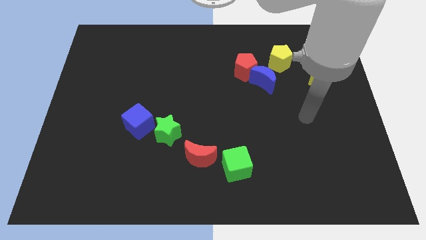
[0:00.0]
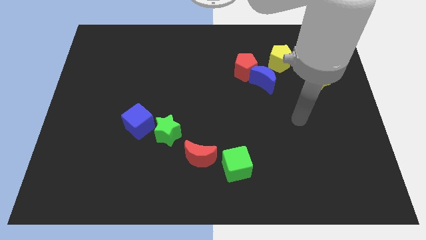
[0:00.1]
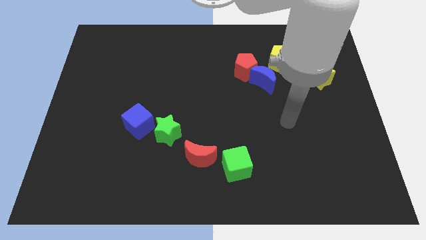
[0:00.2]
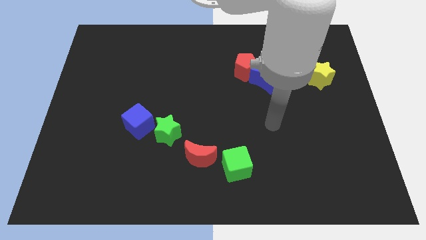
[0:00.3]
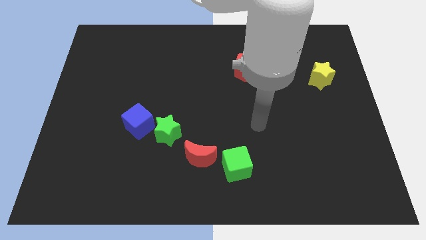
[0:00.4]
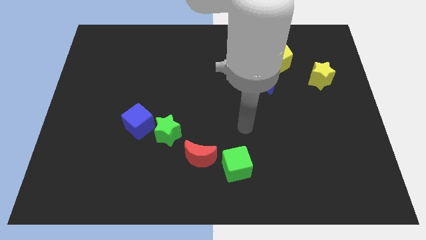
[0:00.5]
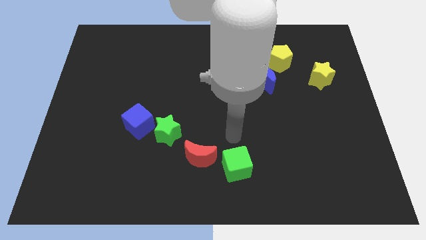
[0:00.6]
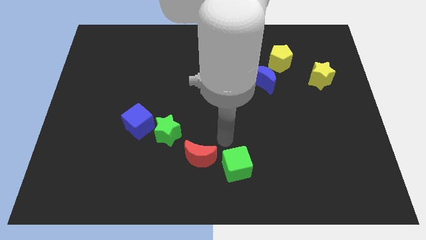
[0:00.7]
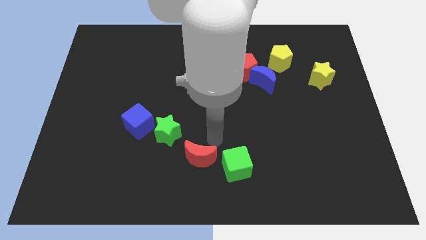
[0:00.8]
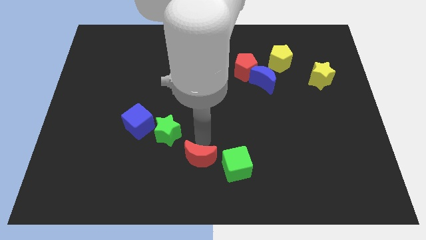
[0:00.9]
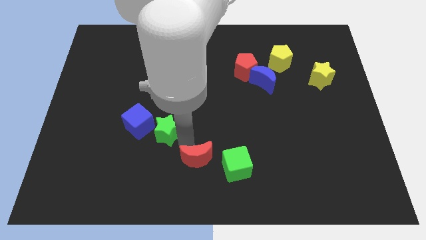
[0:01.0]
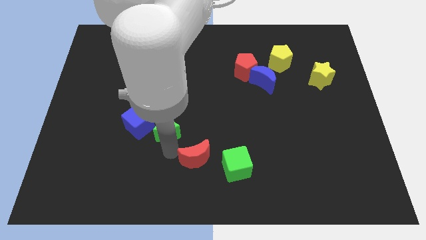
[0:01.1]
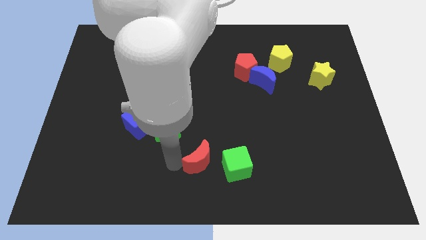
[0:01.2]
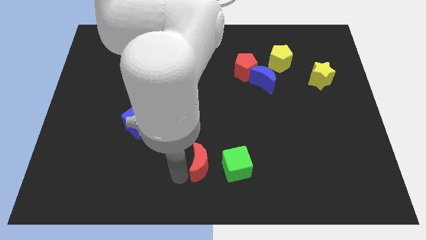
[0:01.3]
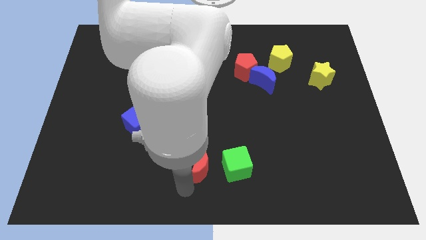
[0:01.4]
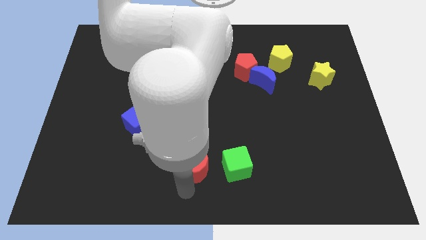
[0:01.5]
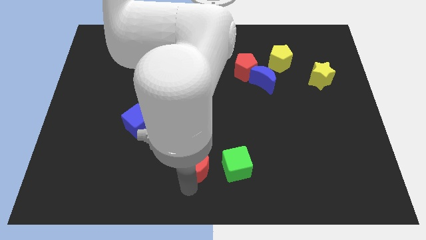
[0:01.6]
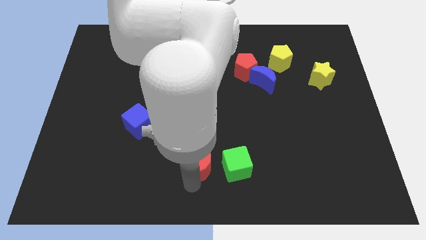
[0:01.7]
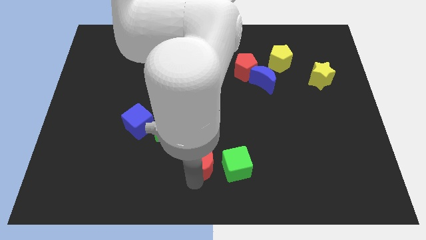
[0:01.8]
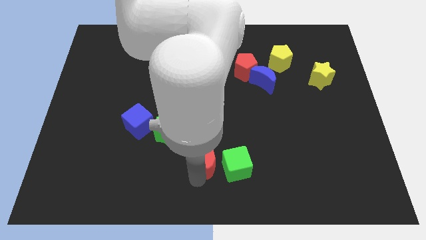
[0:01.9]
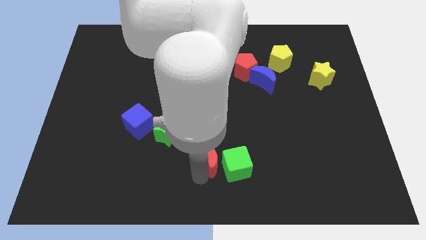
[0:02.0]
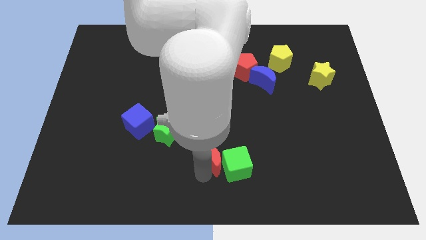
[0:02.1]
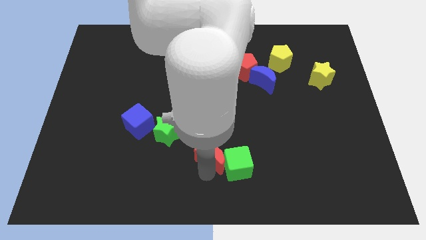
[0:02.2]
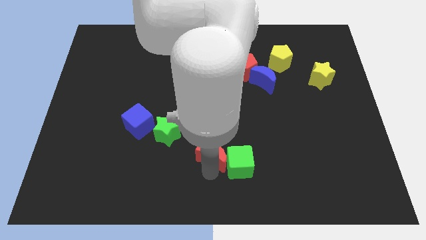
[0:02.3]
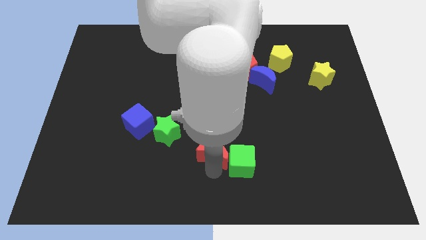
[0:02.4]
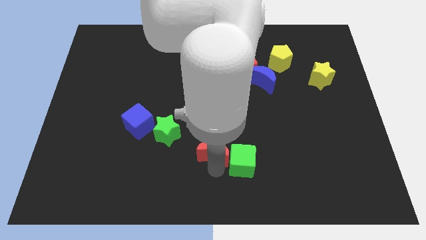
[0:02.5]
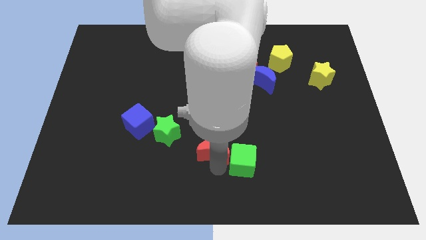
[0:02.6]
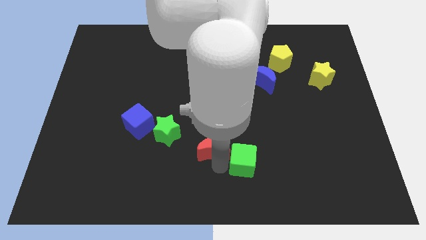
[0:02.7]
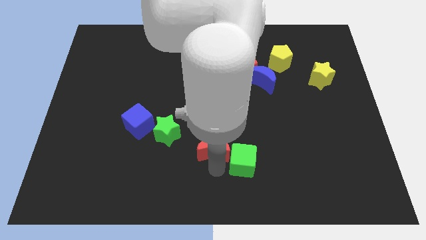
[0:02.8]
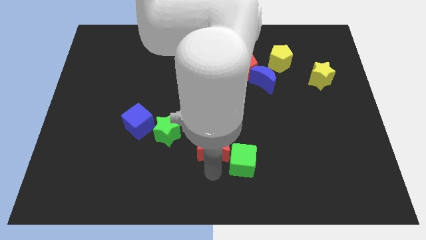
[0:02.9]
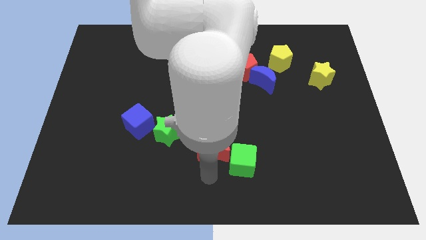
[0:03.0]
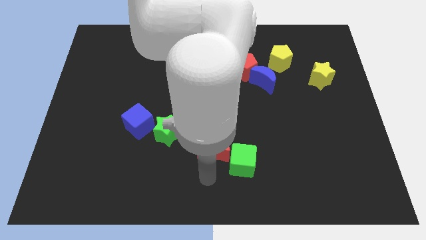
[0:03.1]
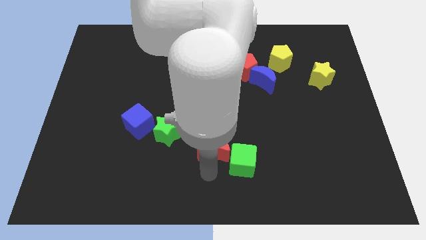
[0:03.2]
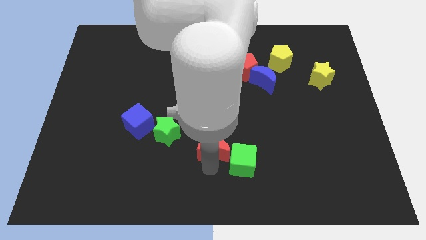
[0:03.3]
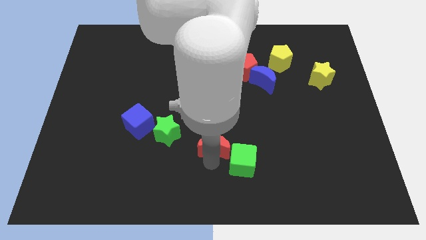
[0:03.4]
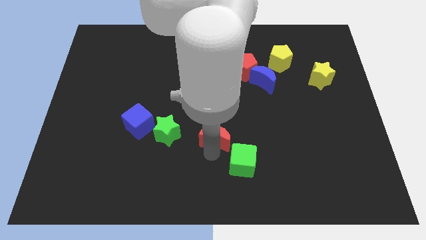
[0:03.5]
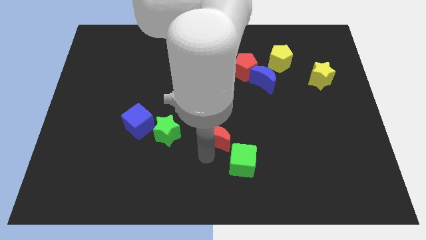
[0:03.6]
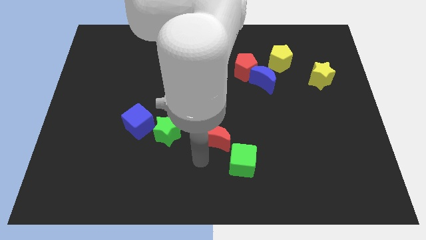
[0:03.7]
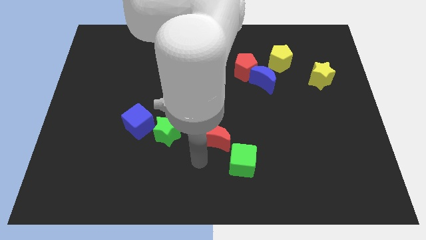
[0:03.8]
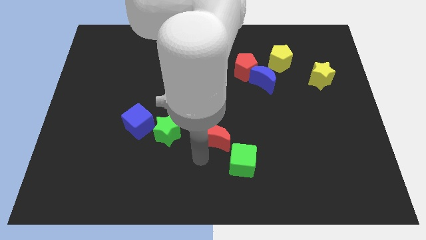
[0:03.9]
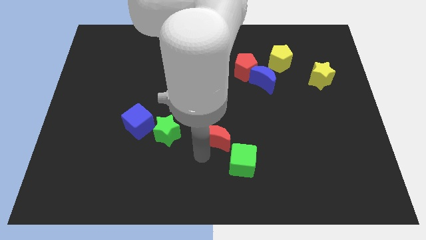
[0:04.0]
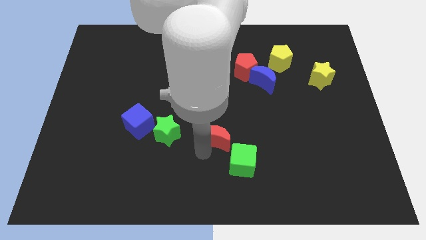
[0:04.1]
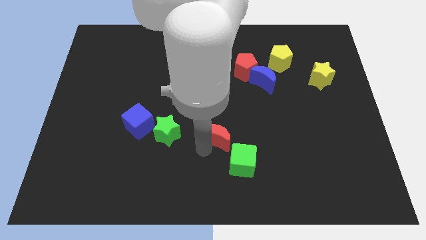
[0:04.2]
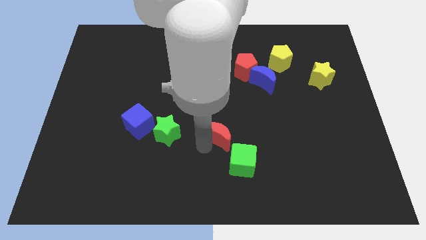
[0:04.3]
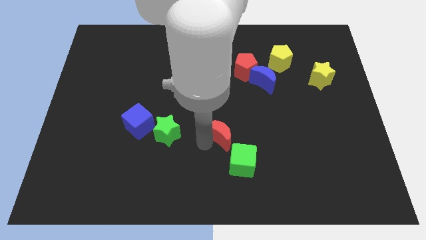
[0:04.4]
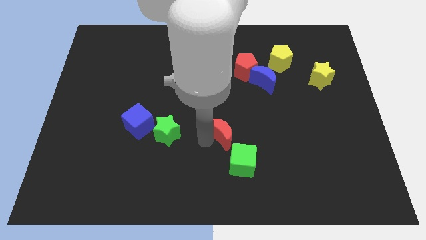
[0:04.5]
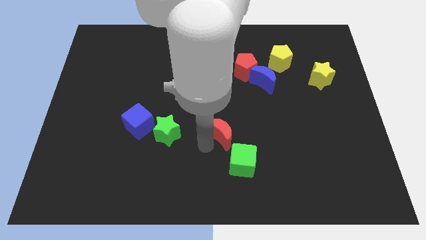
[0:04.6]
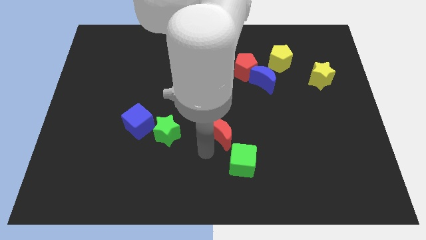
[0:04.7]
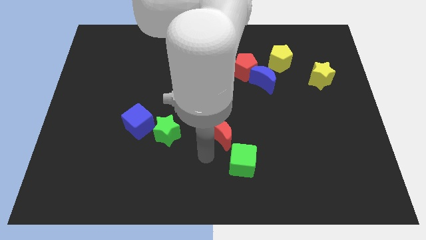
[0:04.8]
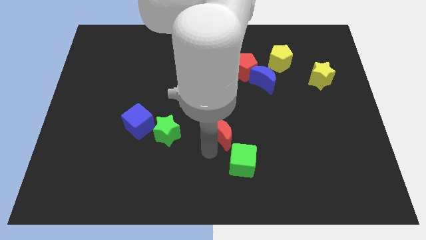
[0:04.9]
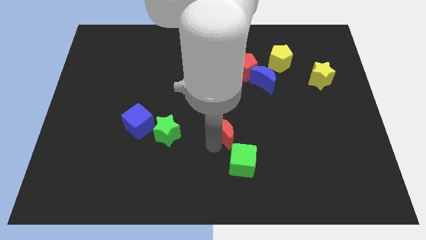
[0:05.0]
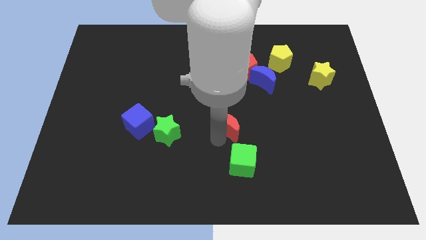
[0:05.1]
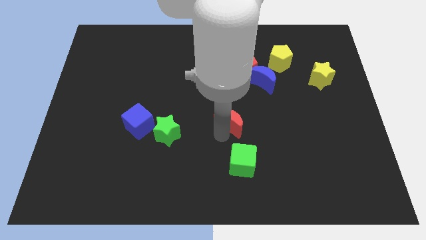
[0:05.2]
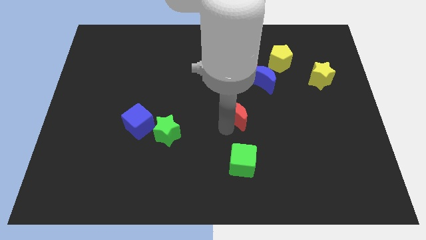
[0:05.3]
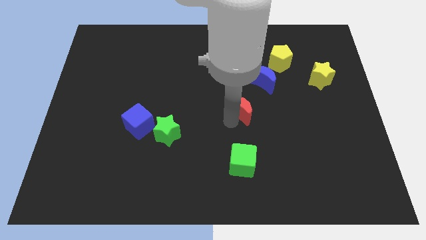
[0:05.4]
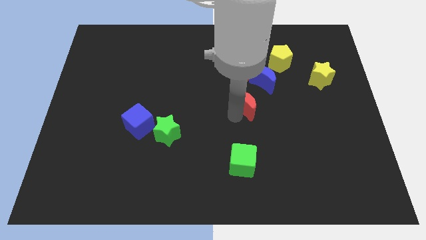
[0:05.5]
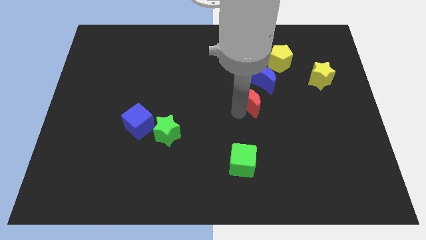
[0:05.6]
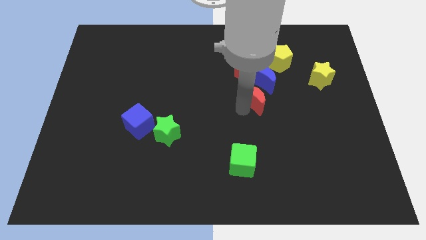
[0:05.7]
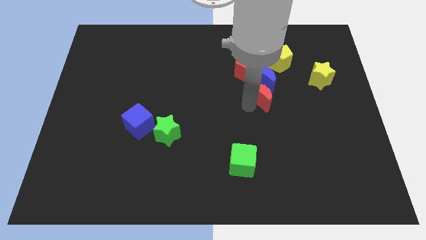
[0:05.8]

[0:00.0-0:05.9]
put the red moon to the blue moon

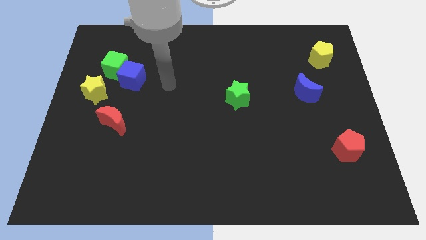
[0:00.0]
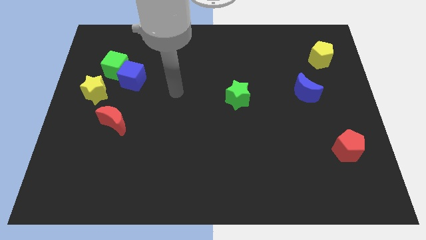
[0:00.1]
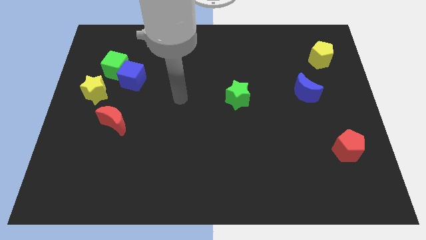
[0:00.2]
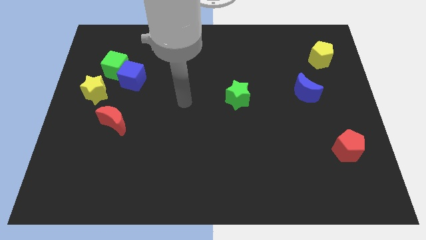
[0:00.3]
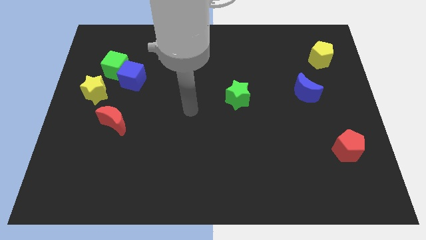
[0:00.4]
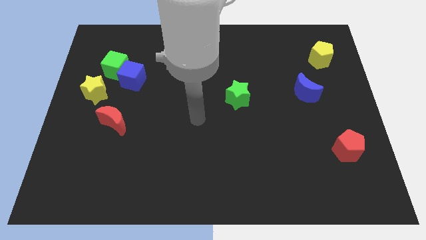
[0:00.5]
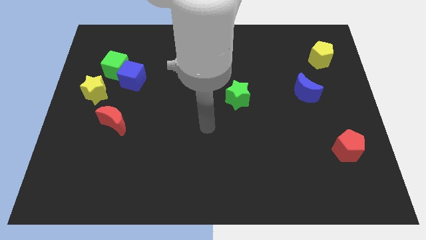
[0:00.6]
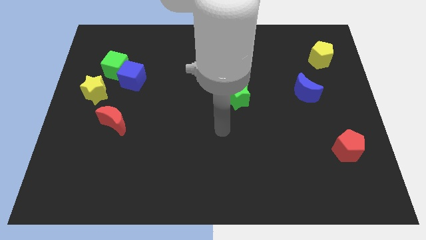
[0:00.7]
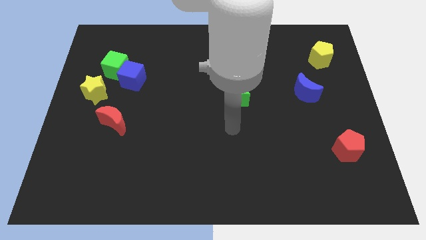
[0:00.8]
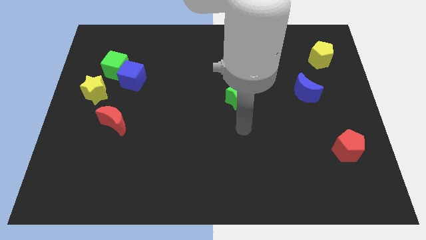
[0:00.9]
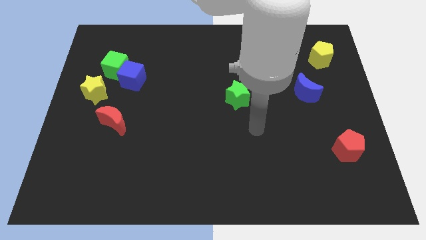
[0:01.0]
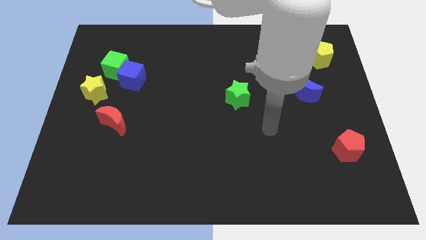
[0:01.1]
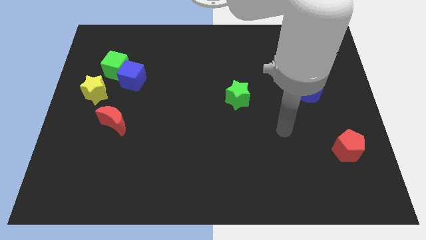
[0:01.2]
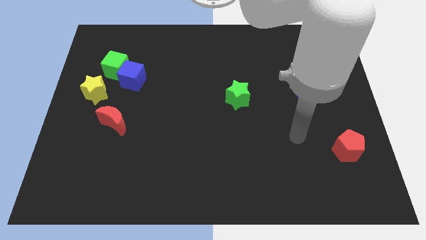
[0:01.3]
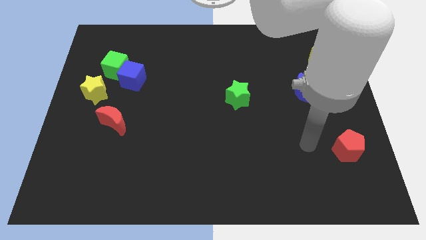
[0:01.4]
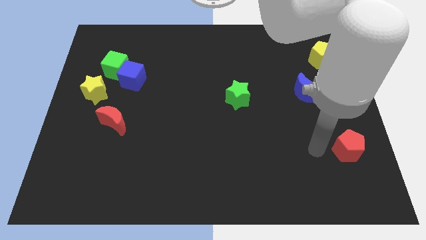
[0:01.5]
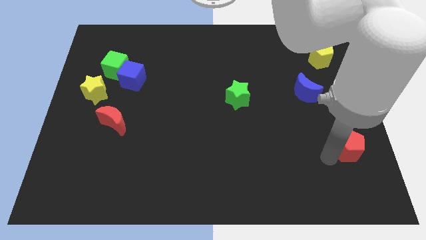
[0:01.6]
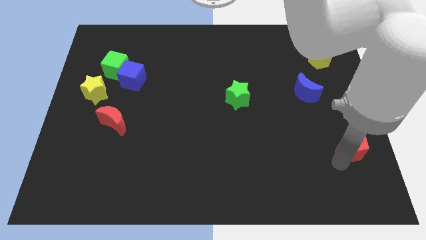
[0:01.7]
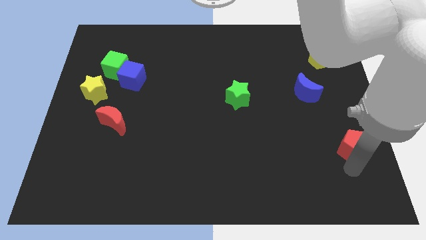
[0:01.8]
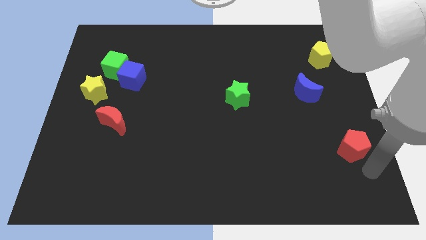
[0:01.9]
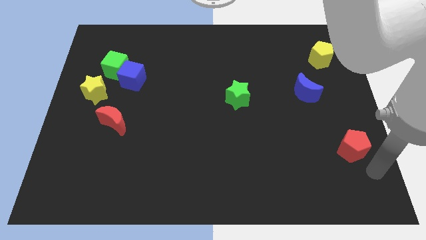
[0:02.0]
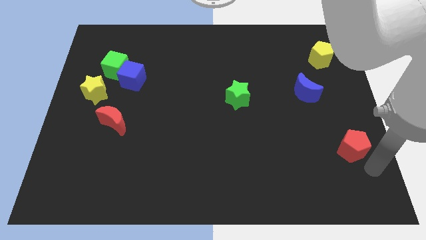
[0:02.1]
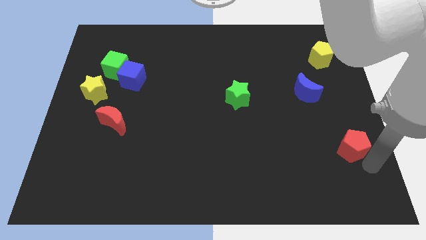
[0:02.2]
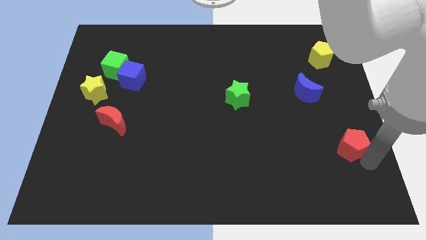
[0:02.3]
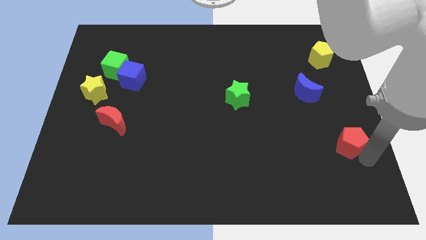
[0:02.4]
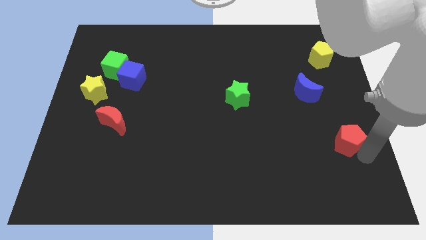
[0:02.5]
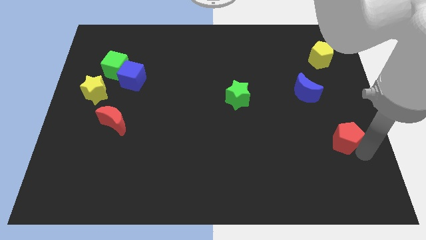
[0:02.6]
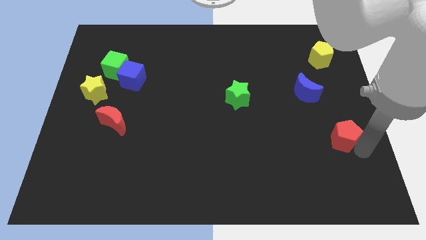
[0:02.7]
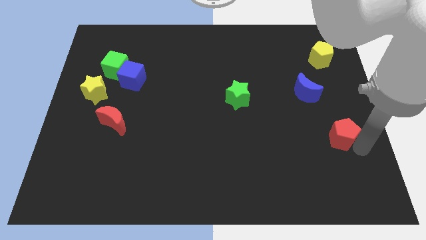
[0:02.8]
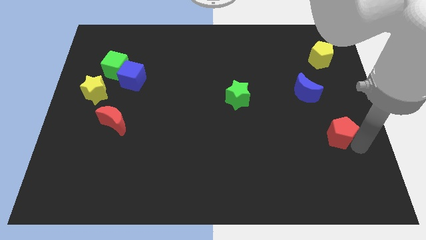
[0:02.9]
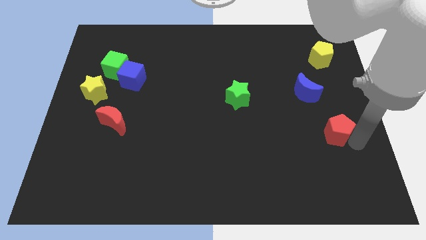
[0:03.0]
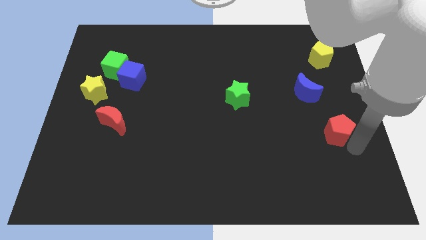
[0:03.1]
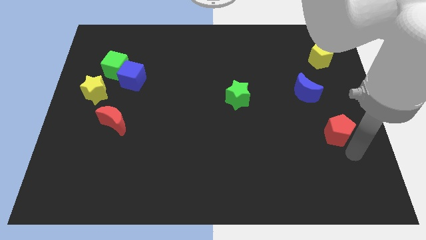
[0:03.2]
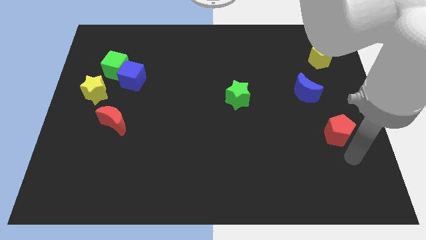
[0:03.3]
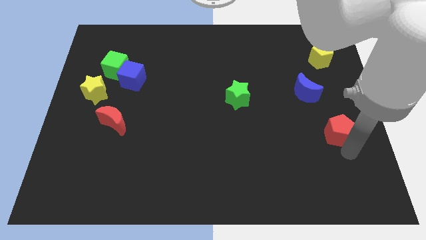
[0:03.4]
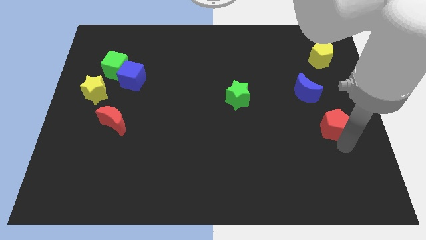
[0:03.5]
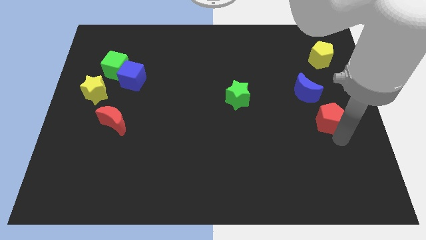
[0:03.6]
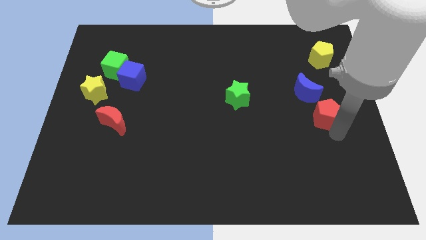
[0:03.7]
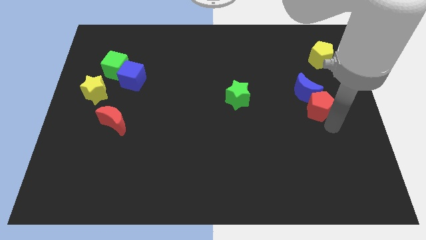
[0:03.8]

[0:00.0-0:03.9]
move the red pentagon close to the blue moon
